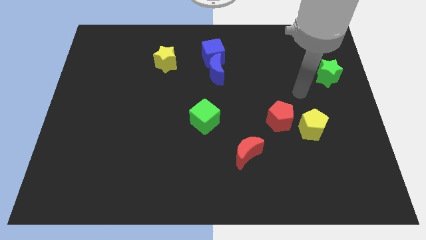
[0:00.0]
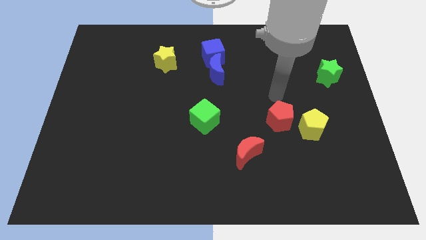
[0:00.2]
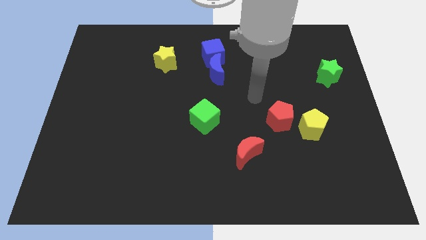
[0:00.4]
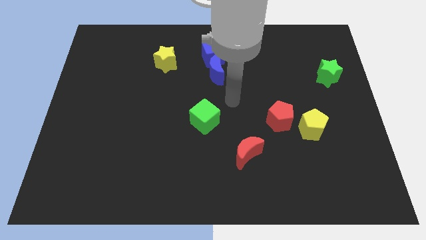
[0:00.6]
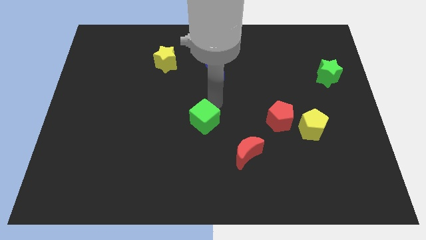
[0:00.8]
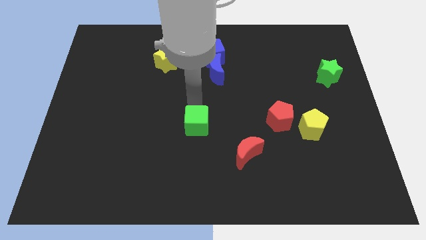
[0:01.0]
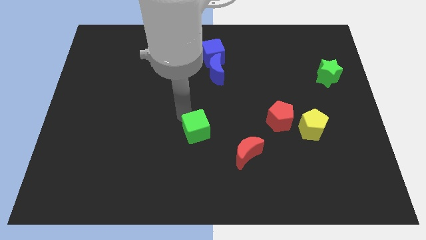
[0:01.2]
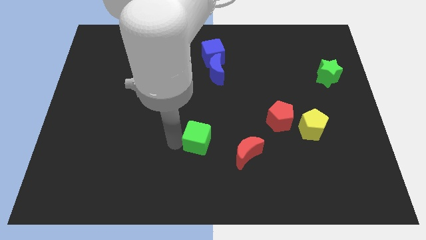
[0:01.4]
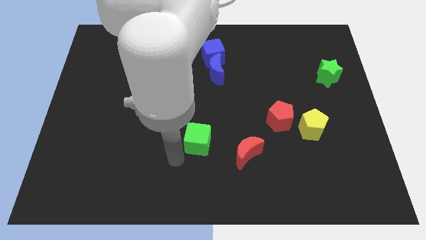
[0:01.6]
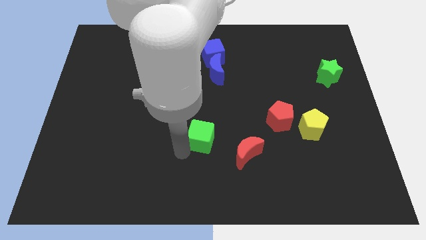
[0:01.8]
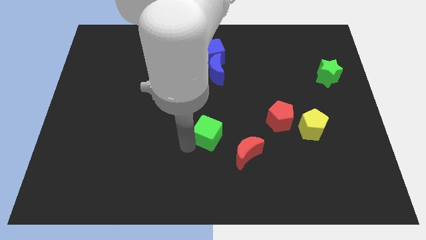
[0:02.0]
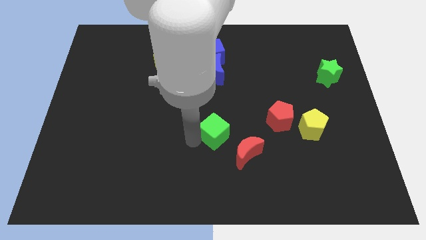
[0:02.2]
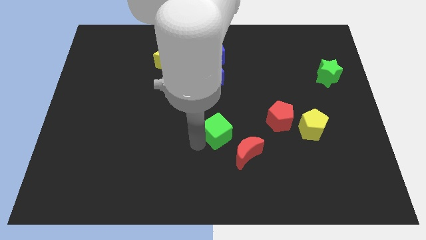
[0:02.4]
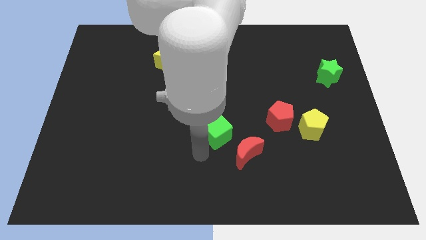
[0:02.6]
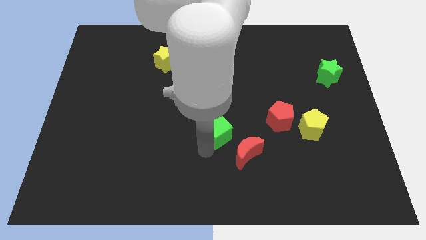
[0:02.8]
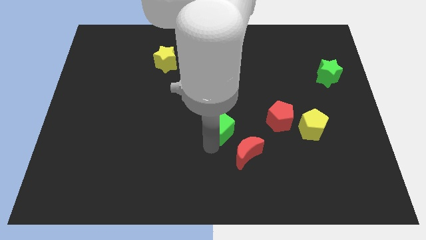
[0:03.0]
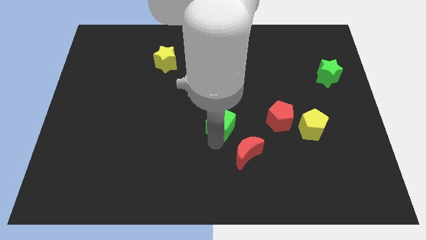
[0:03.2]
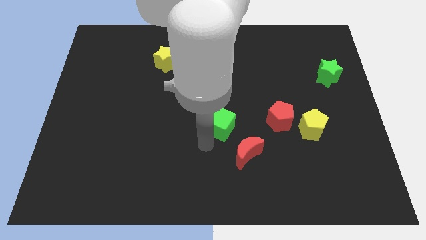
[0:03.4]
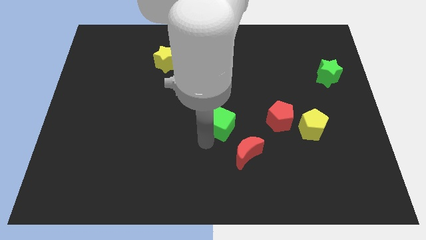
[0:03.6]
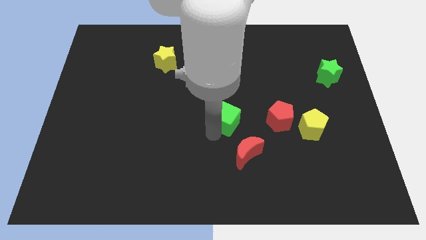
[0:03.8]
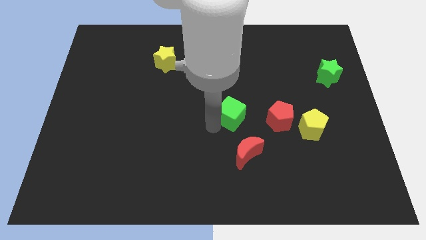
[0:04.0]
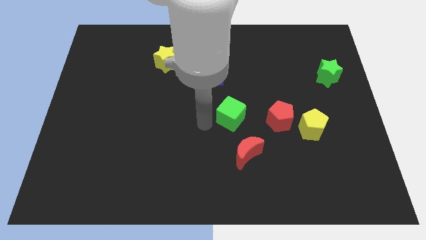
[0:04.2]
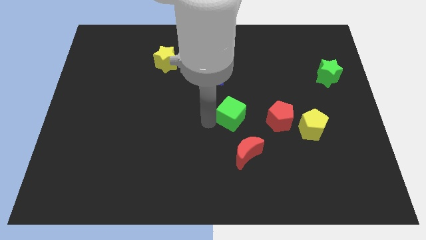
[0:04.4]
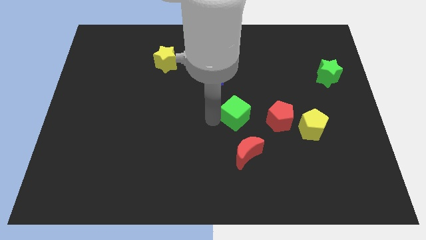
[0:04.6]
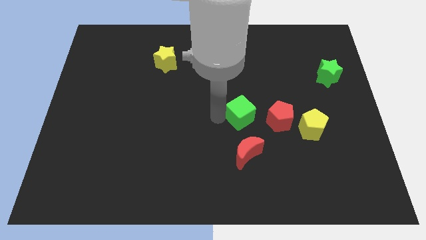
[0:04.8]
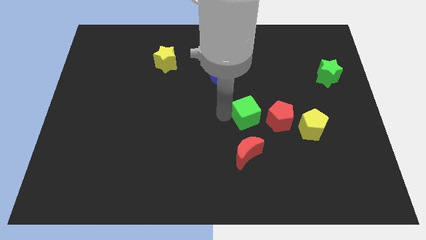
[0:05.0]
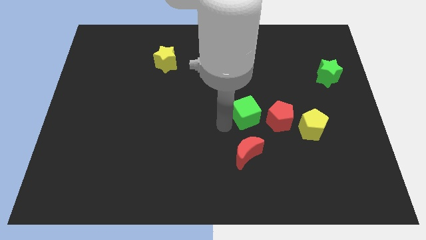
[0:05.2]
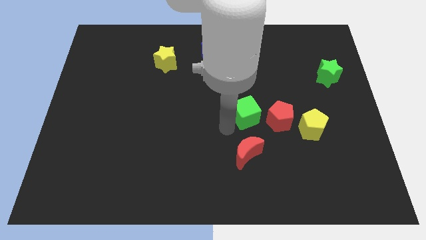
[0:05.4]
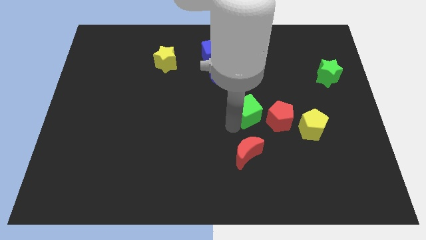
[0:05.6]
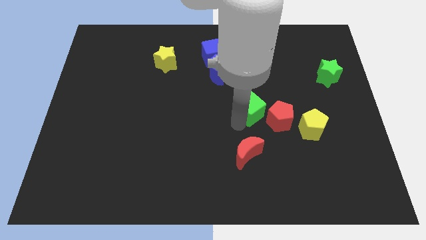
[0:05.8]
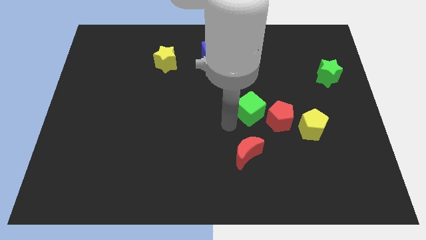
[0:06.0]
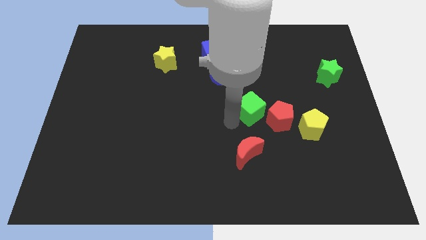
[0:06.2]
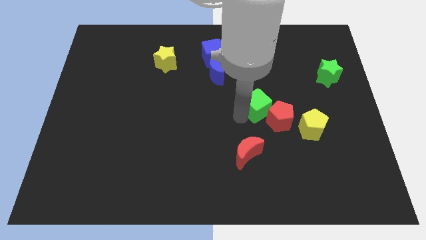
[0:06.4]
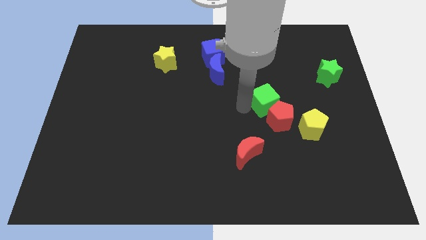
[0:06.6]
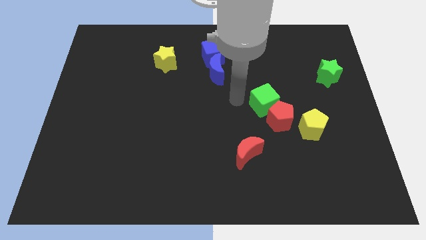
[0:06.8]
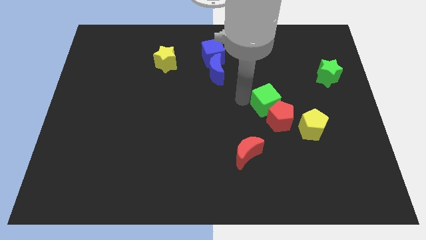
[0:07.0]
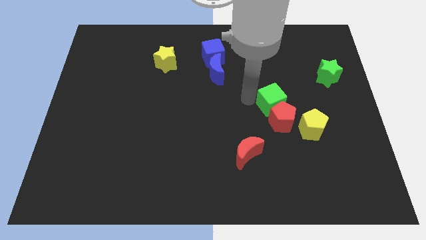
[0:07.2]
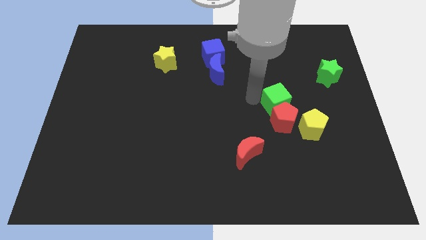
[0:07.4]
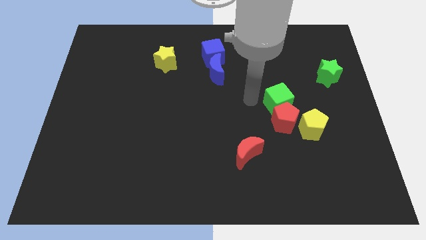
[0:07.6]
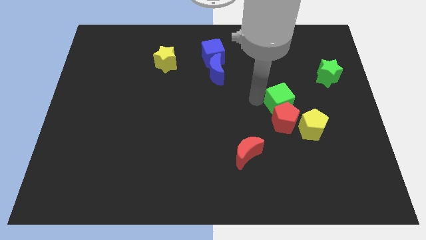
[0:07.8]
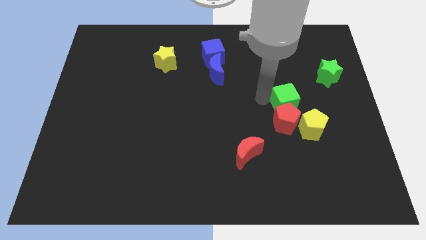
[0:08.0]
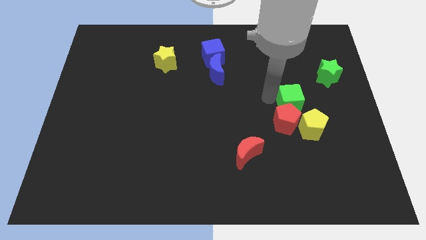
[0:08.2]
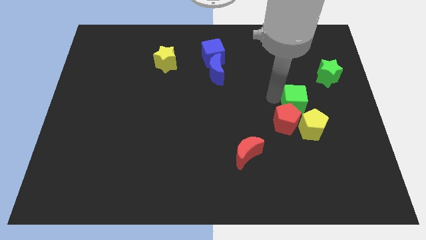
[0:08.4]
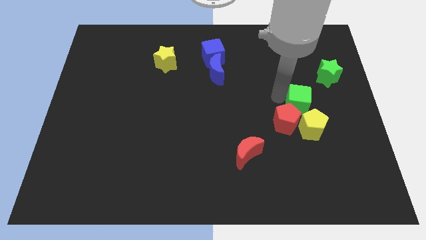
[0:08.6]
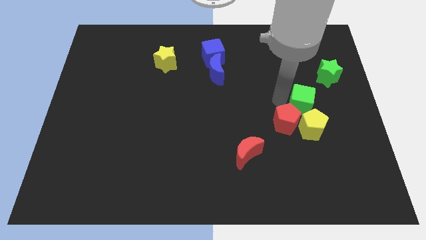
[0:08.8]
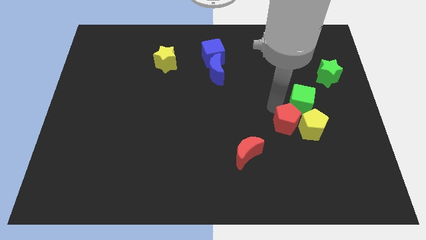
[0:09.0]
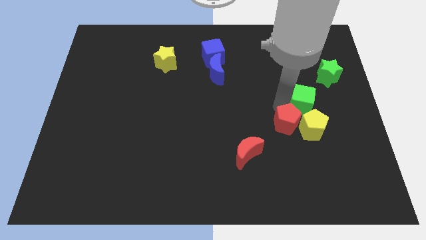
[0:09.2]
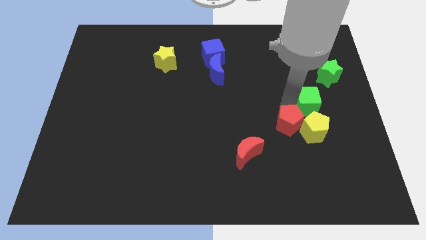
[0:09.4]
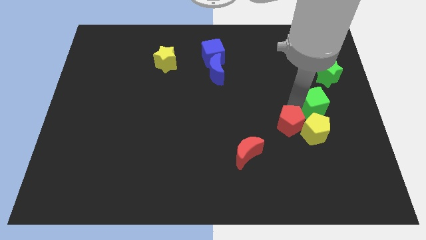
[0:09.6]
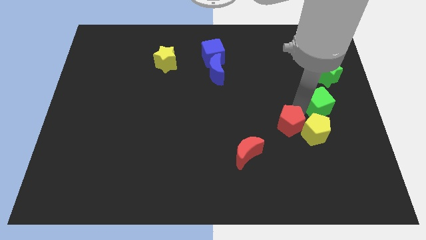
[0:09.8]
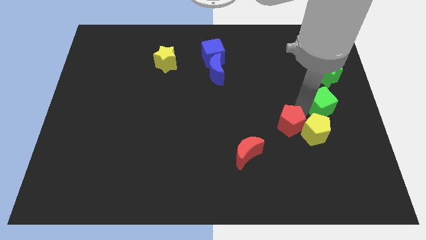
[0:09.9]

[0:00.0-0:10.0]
push the green cube to the center right

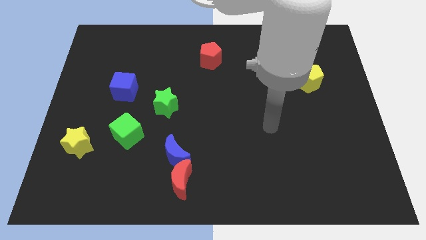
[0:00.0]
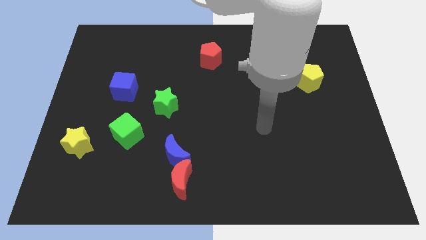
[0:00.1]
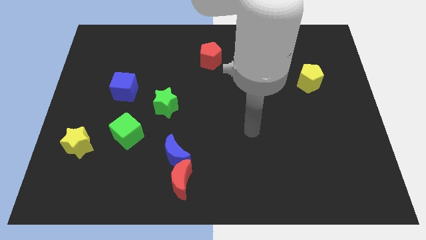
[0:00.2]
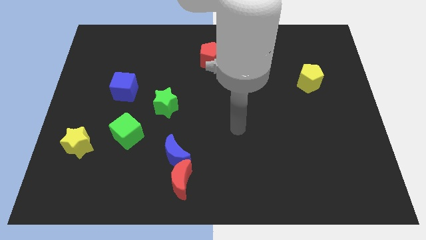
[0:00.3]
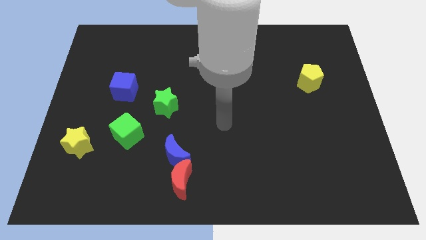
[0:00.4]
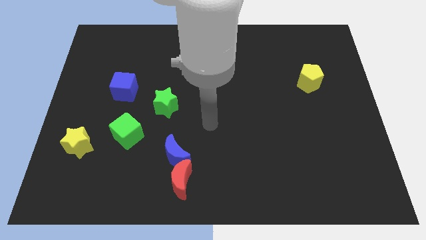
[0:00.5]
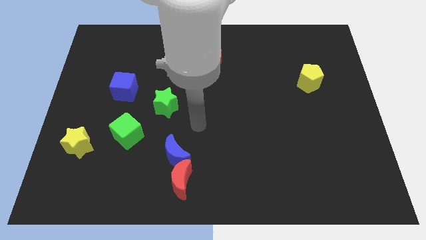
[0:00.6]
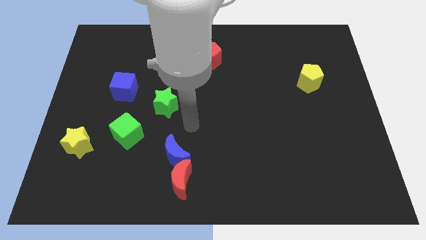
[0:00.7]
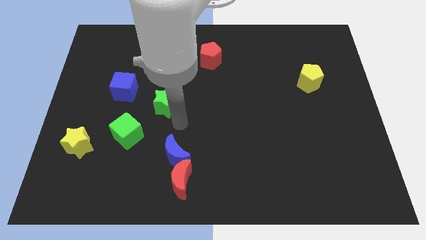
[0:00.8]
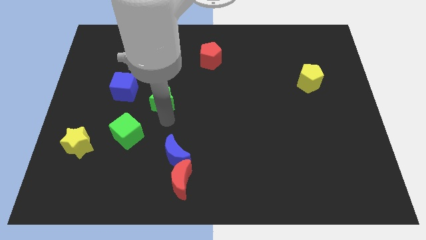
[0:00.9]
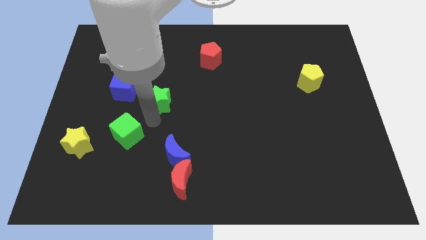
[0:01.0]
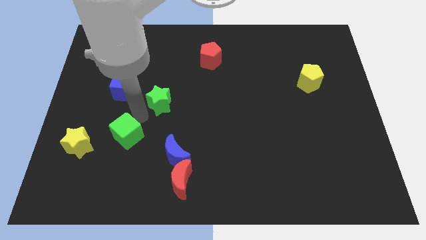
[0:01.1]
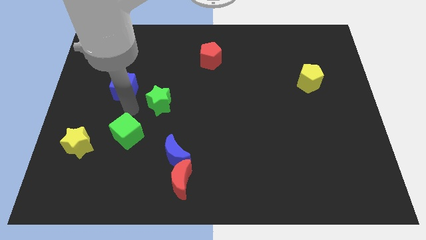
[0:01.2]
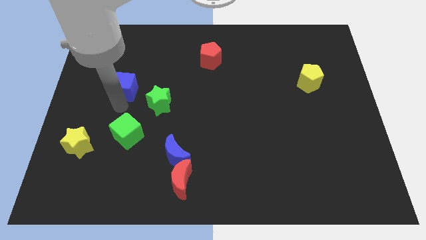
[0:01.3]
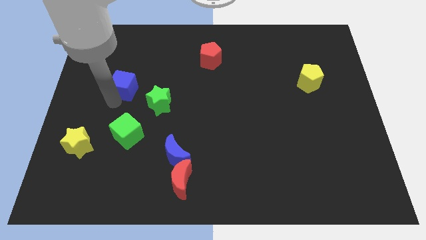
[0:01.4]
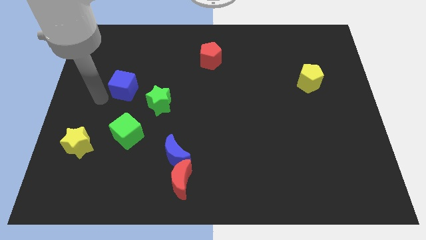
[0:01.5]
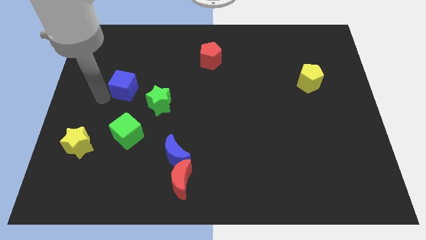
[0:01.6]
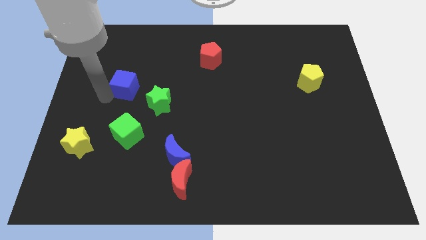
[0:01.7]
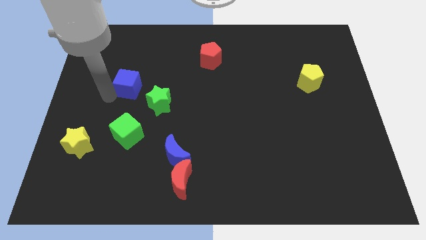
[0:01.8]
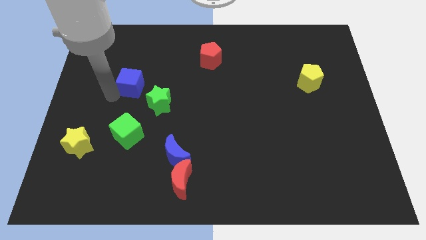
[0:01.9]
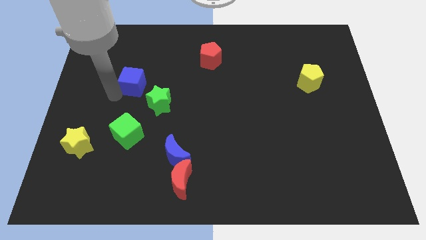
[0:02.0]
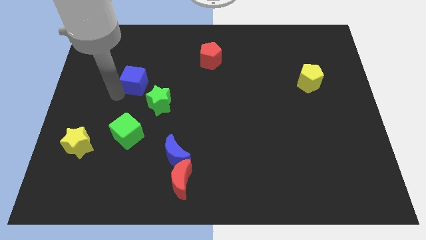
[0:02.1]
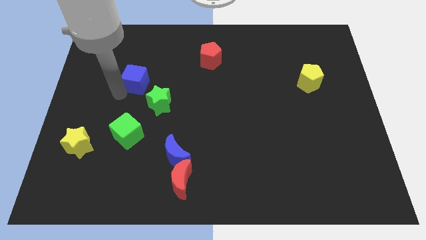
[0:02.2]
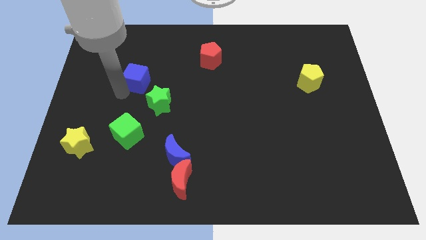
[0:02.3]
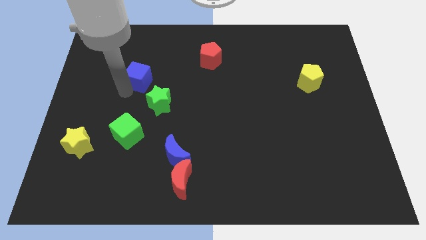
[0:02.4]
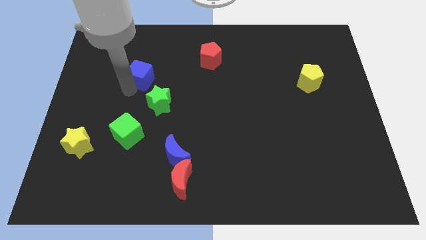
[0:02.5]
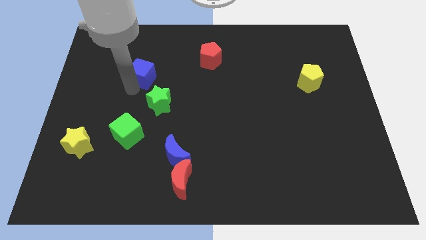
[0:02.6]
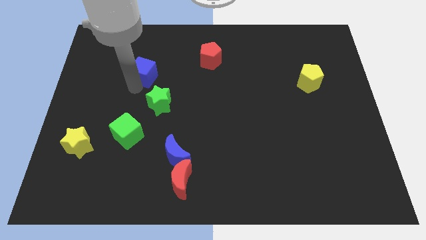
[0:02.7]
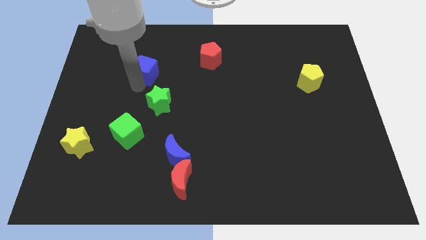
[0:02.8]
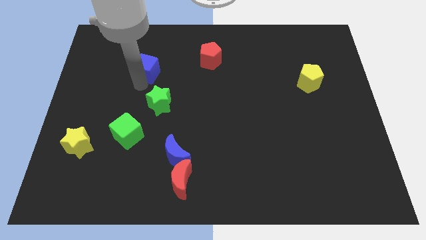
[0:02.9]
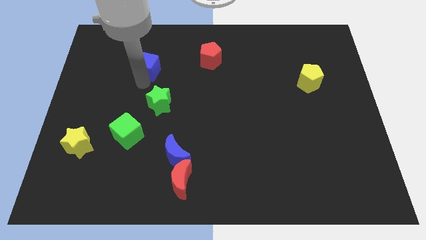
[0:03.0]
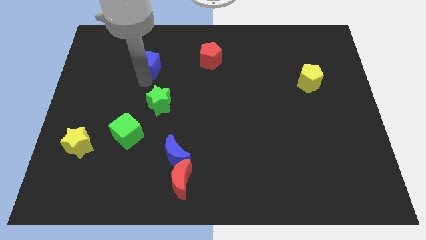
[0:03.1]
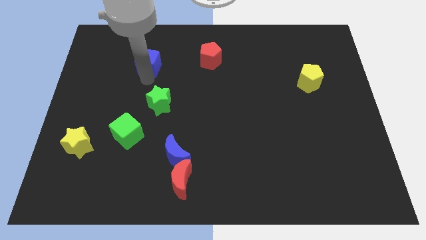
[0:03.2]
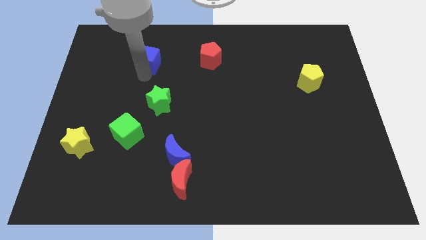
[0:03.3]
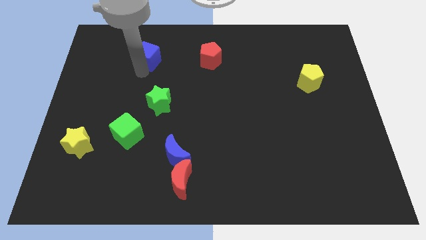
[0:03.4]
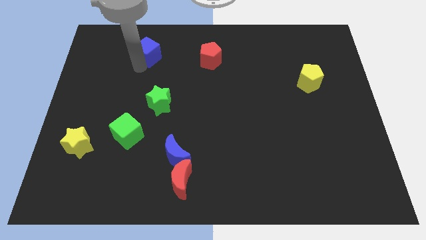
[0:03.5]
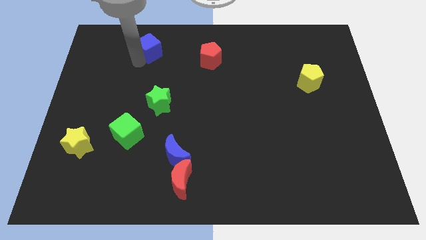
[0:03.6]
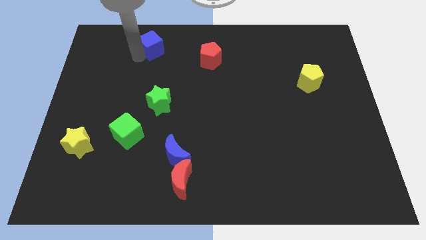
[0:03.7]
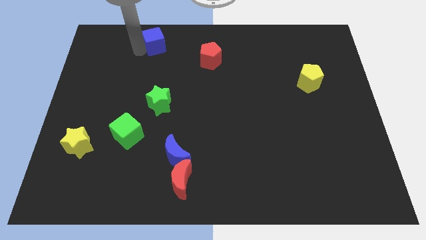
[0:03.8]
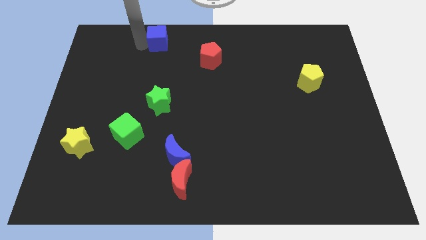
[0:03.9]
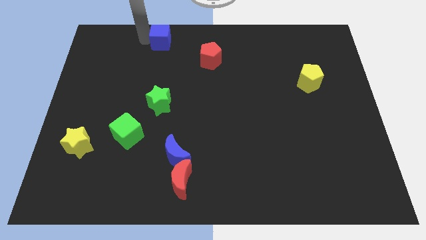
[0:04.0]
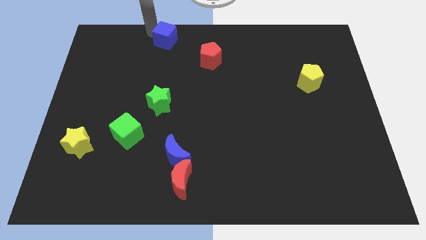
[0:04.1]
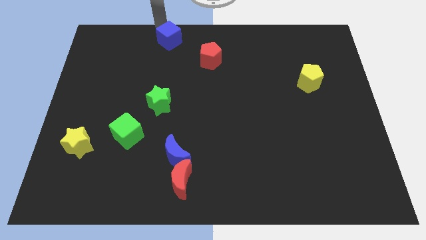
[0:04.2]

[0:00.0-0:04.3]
put the blue cube to the top
